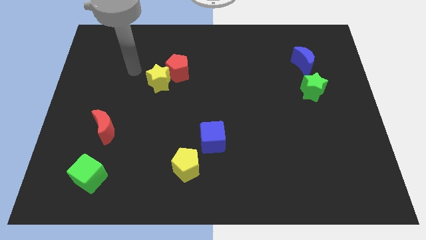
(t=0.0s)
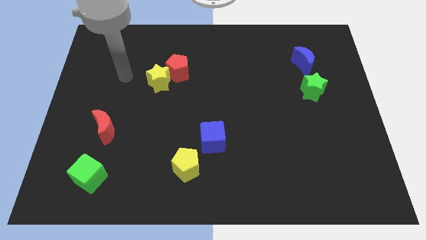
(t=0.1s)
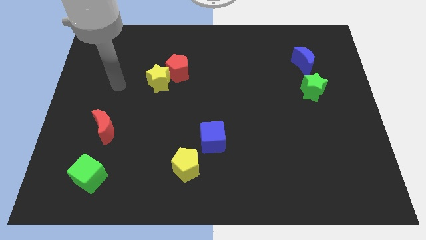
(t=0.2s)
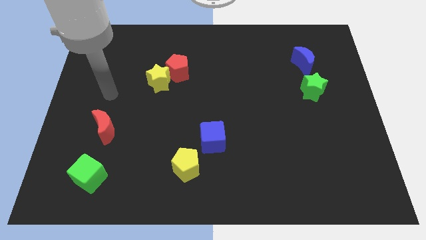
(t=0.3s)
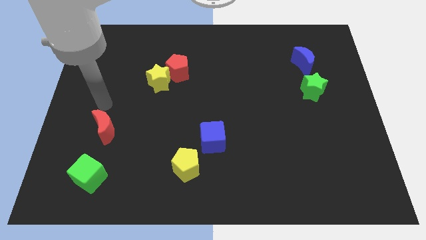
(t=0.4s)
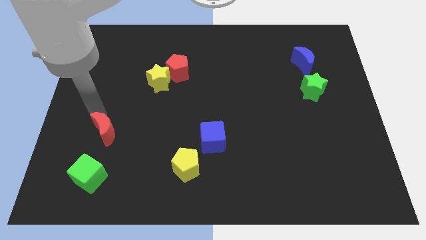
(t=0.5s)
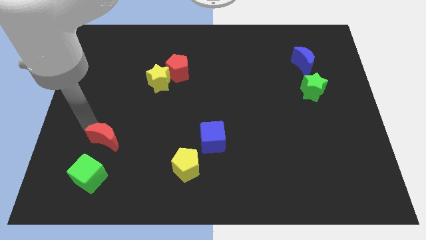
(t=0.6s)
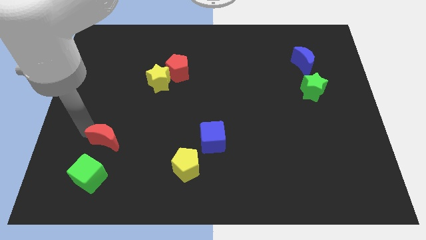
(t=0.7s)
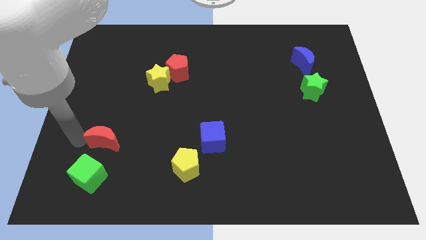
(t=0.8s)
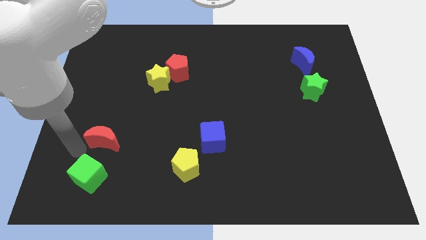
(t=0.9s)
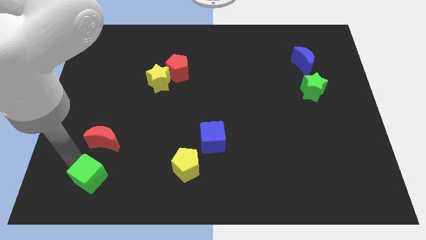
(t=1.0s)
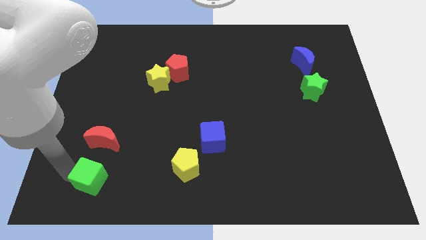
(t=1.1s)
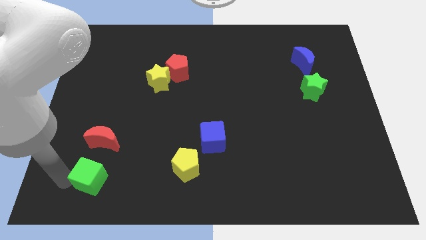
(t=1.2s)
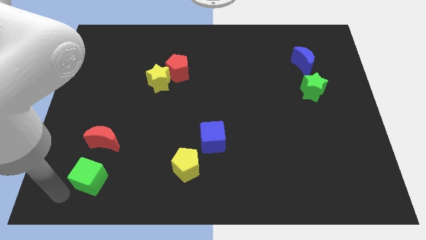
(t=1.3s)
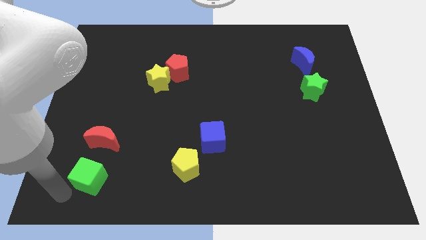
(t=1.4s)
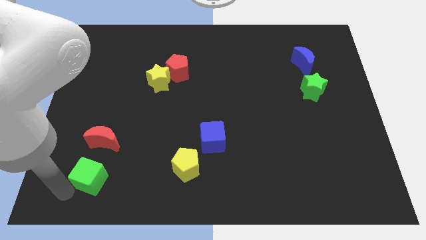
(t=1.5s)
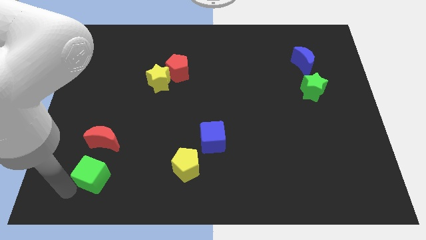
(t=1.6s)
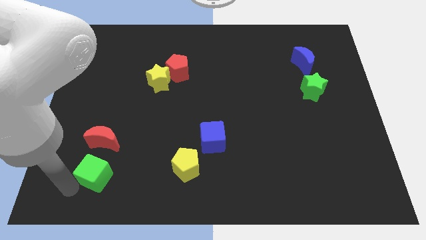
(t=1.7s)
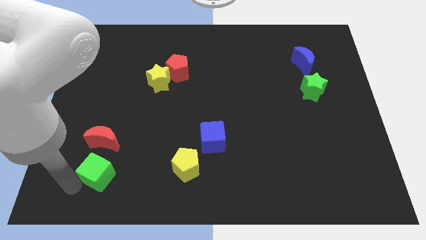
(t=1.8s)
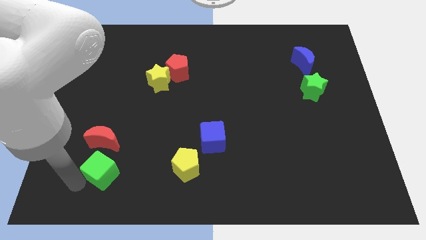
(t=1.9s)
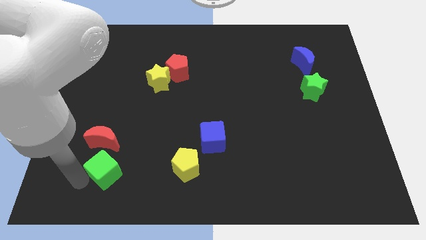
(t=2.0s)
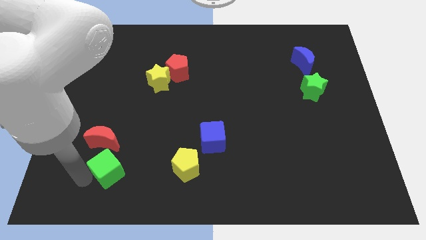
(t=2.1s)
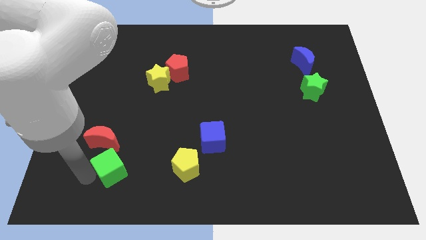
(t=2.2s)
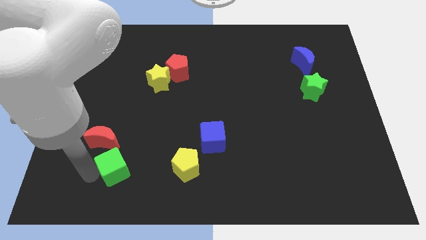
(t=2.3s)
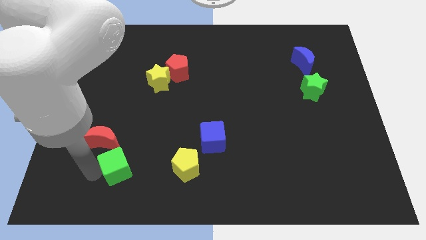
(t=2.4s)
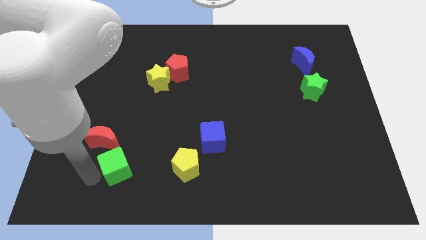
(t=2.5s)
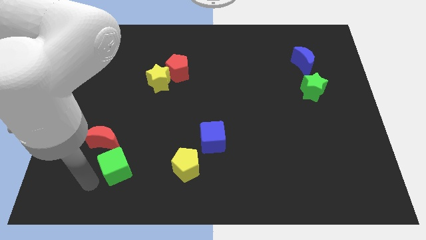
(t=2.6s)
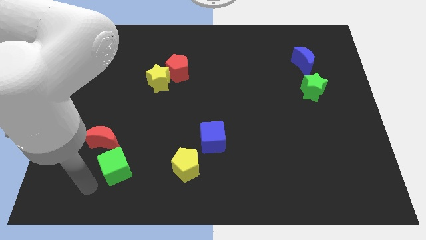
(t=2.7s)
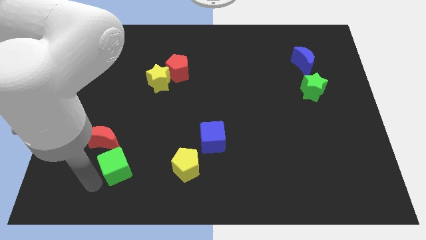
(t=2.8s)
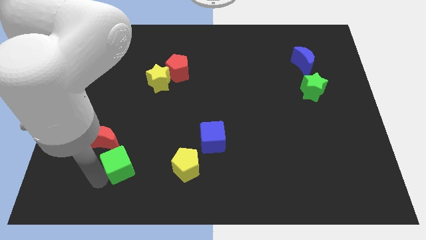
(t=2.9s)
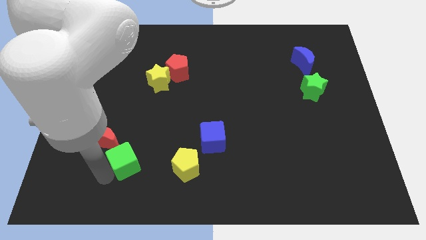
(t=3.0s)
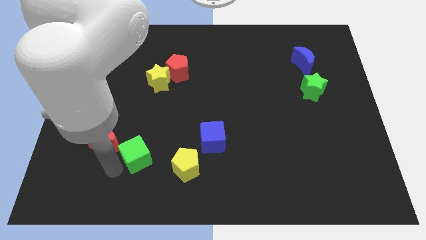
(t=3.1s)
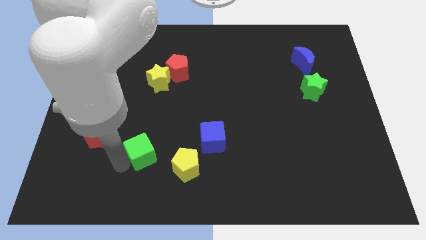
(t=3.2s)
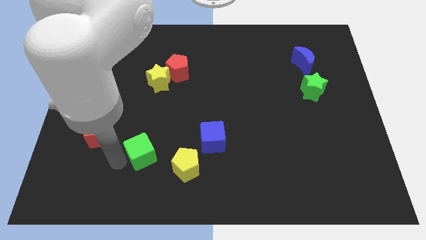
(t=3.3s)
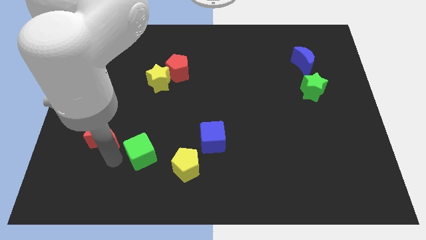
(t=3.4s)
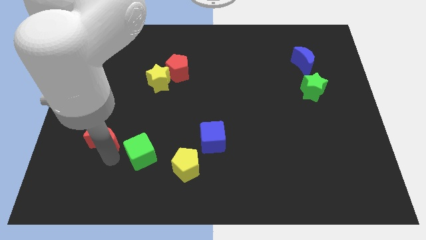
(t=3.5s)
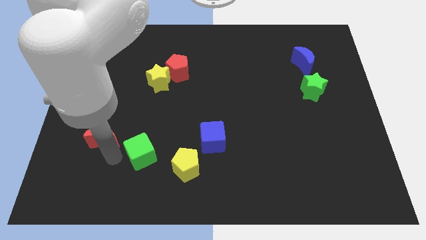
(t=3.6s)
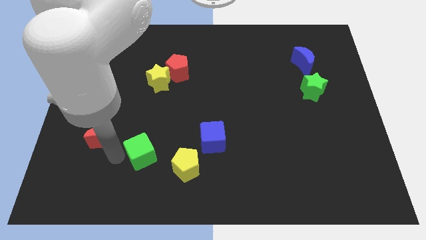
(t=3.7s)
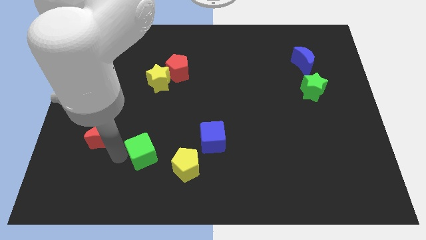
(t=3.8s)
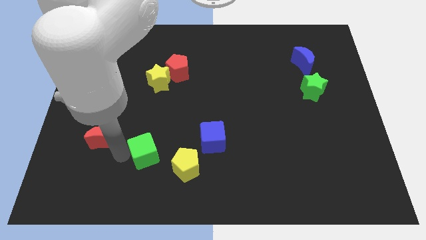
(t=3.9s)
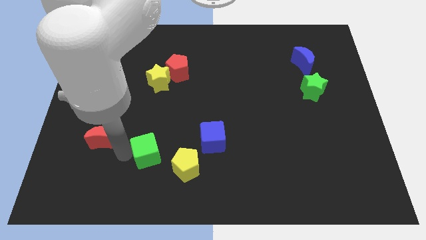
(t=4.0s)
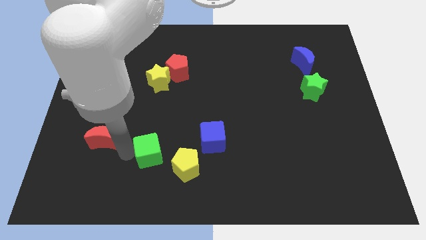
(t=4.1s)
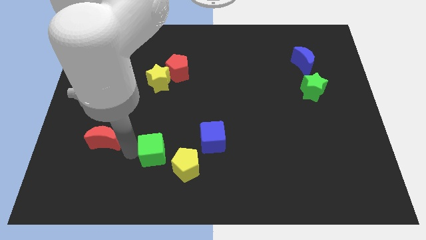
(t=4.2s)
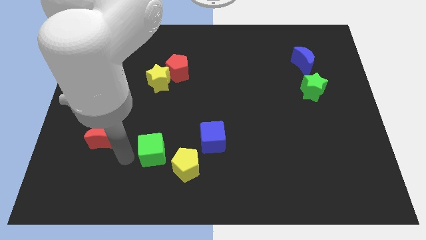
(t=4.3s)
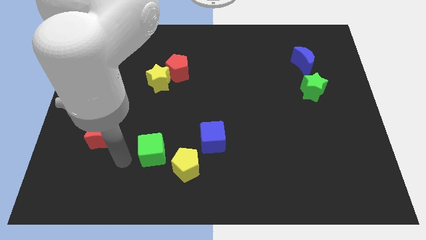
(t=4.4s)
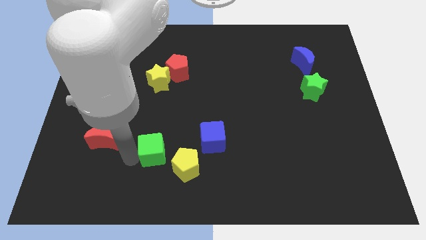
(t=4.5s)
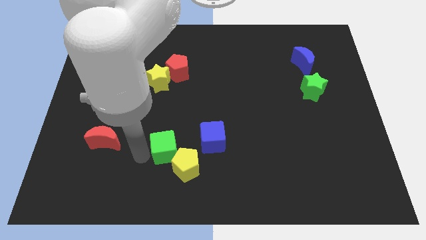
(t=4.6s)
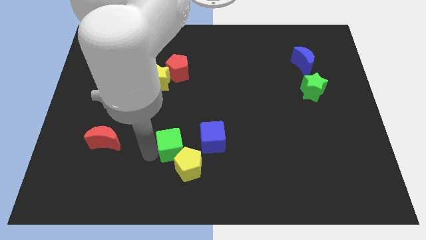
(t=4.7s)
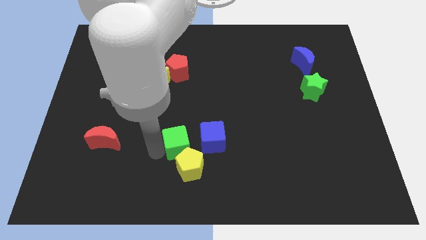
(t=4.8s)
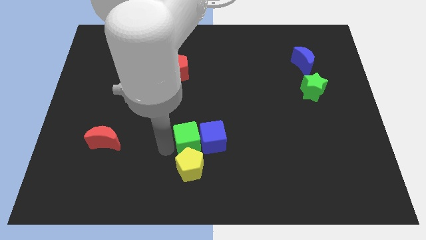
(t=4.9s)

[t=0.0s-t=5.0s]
slide the green cube close to the blue cube

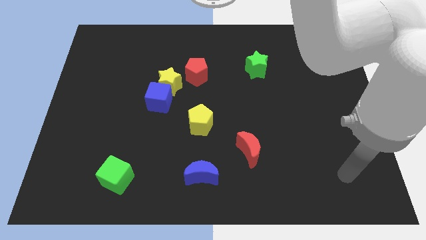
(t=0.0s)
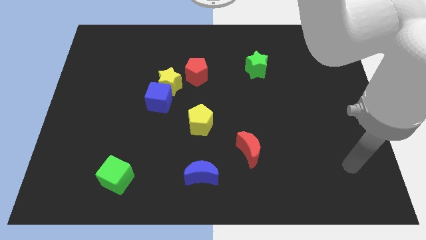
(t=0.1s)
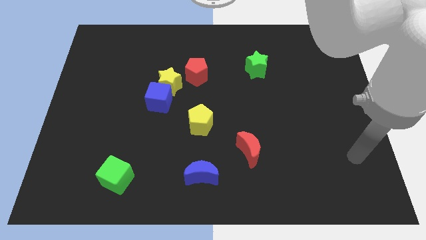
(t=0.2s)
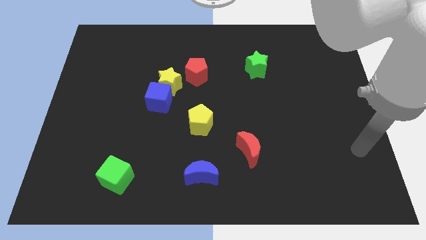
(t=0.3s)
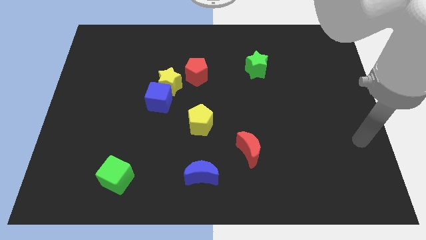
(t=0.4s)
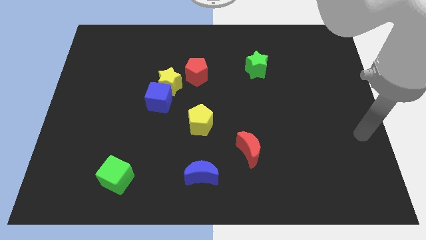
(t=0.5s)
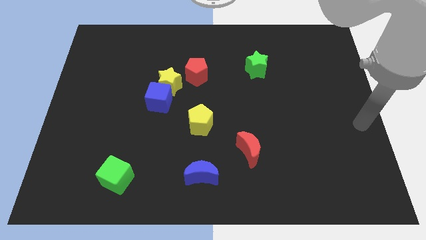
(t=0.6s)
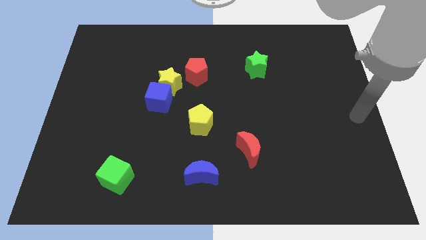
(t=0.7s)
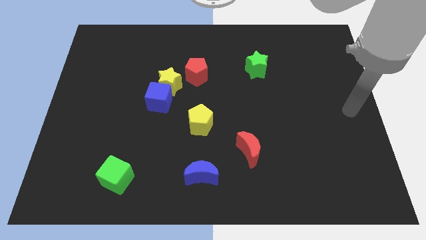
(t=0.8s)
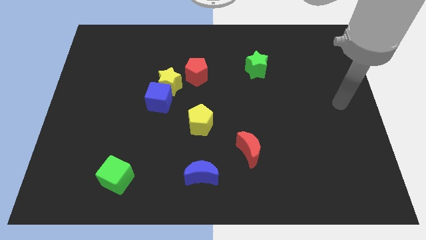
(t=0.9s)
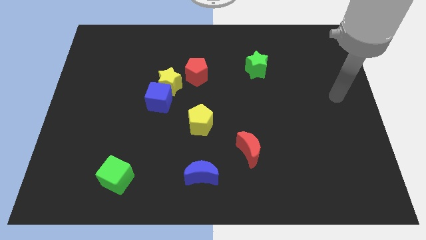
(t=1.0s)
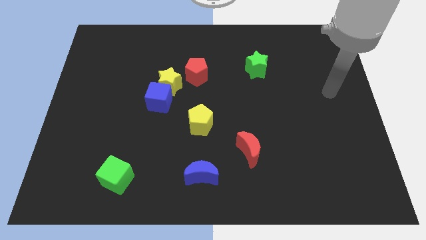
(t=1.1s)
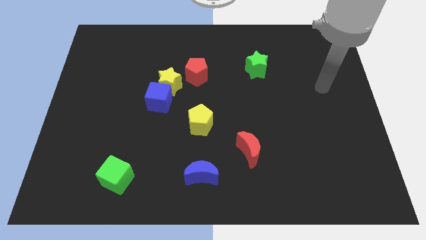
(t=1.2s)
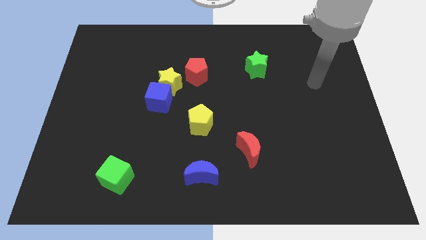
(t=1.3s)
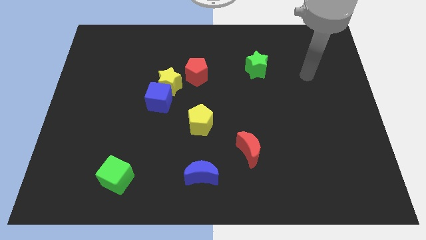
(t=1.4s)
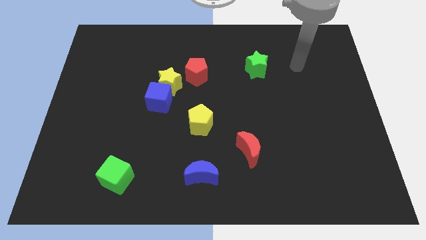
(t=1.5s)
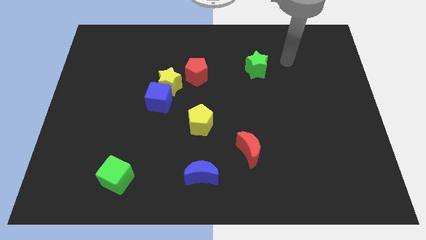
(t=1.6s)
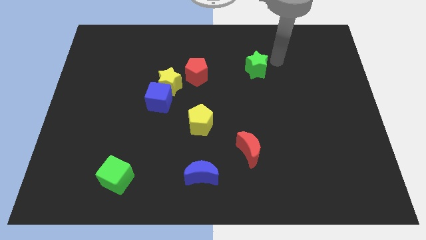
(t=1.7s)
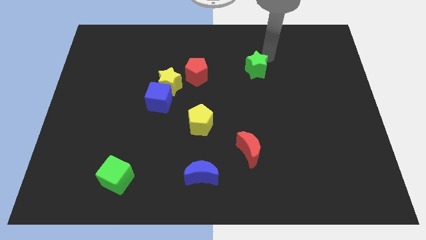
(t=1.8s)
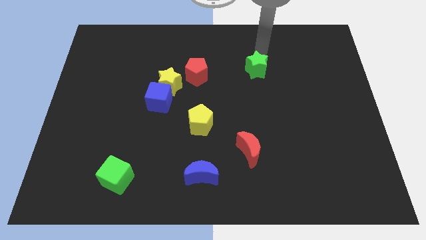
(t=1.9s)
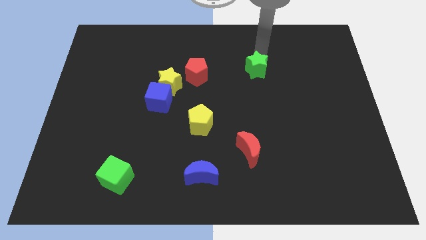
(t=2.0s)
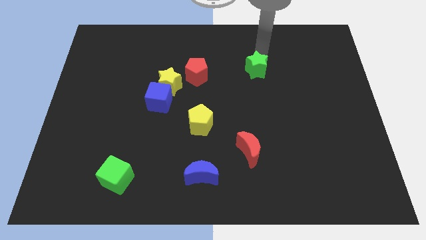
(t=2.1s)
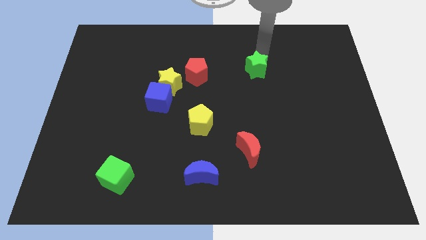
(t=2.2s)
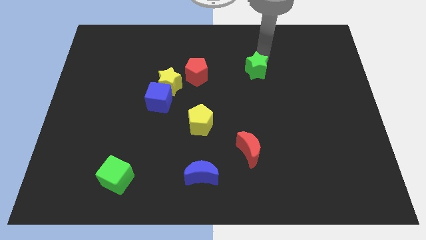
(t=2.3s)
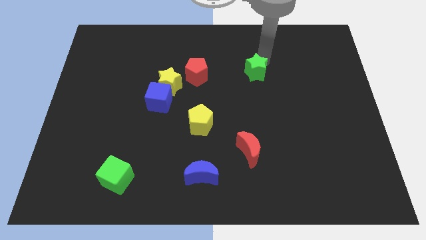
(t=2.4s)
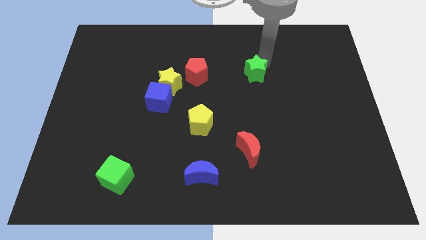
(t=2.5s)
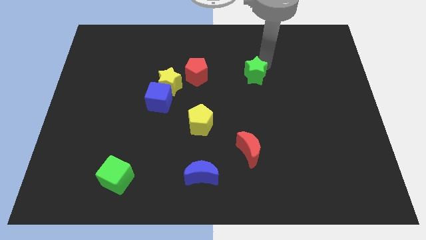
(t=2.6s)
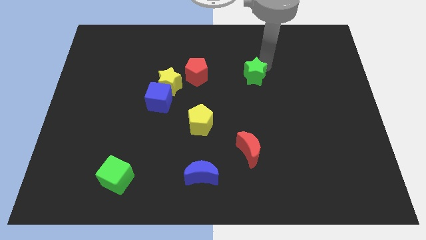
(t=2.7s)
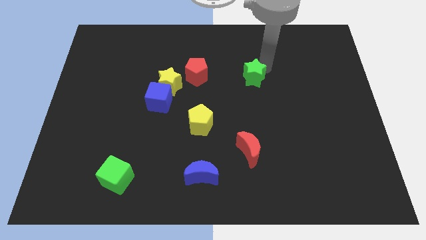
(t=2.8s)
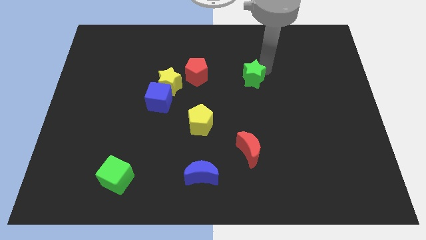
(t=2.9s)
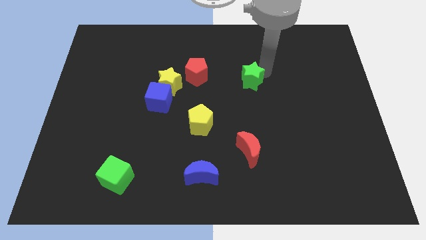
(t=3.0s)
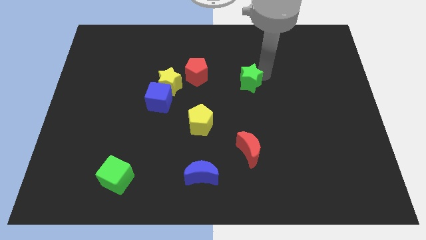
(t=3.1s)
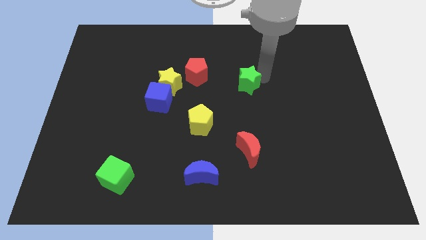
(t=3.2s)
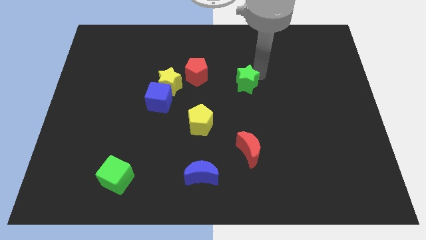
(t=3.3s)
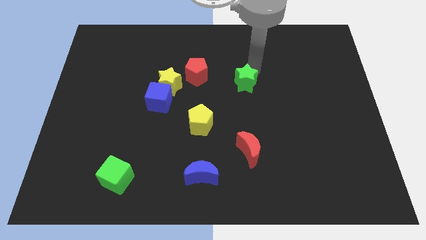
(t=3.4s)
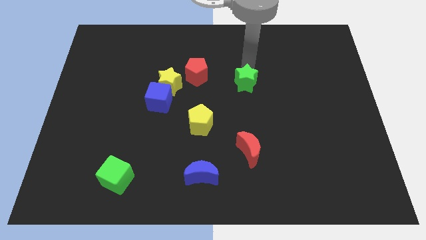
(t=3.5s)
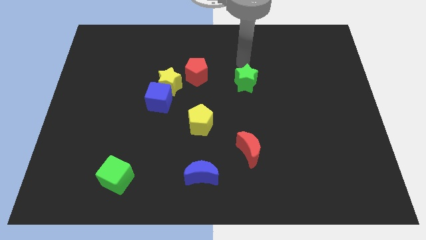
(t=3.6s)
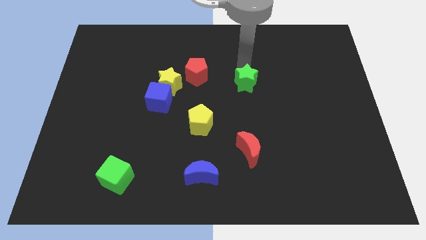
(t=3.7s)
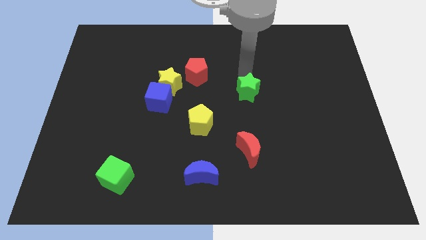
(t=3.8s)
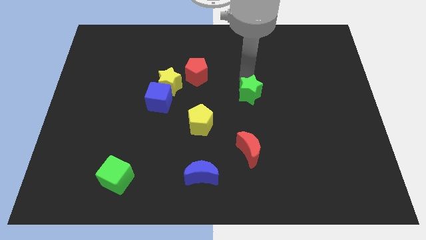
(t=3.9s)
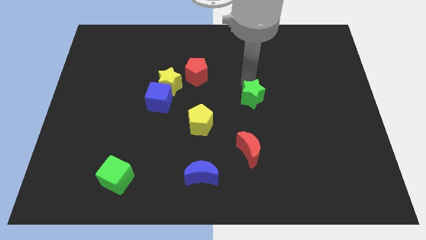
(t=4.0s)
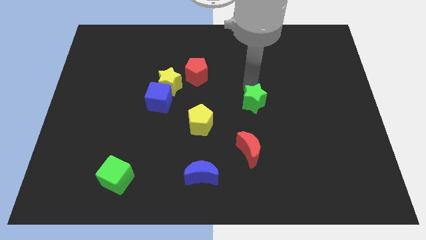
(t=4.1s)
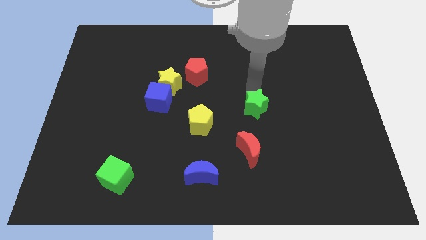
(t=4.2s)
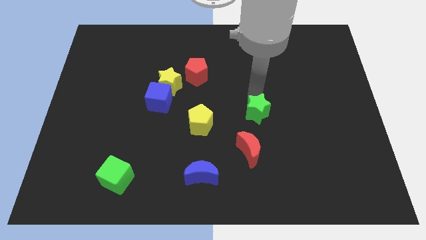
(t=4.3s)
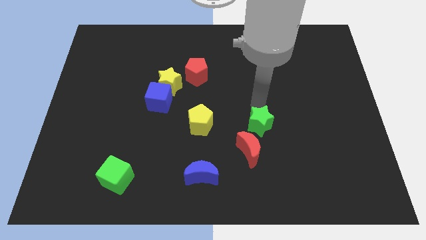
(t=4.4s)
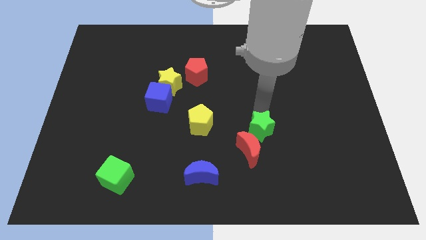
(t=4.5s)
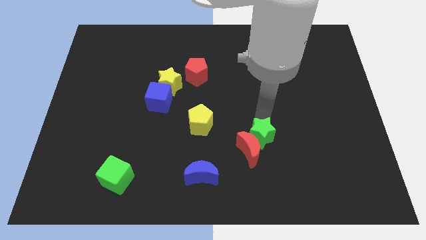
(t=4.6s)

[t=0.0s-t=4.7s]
move the green star to the red moon
